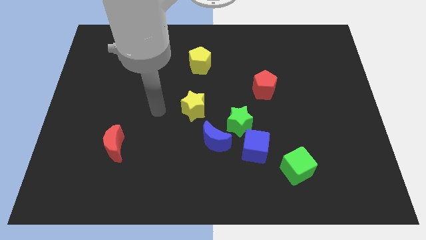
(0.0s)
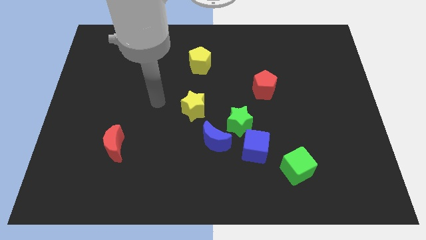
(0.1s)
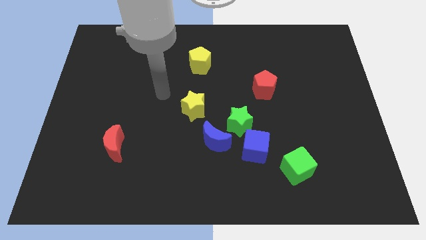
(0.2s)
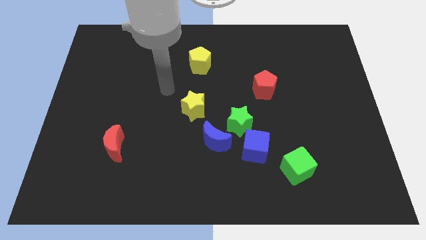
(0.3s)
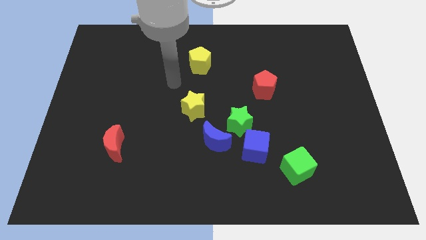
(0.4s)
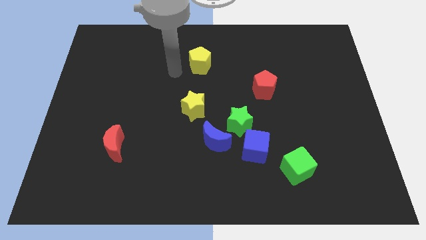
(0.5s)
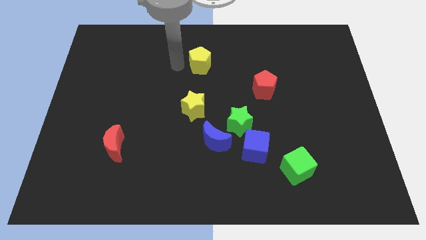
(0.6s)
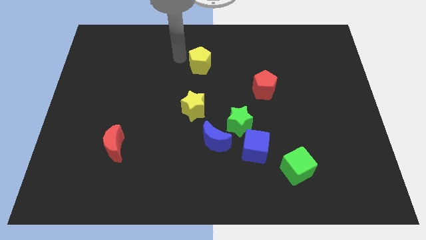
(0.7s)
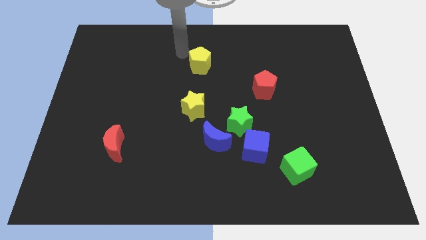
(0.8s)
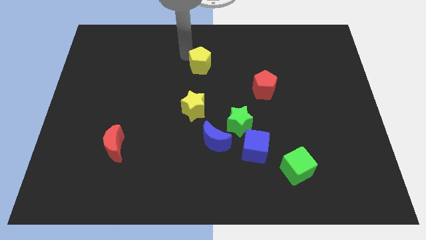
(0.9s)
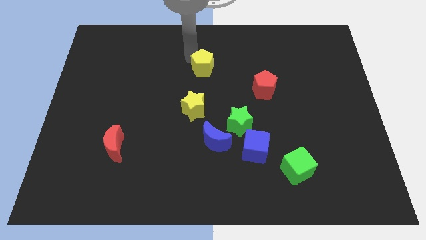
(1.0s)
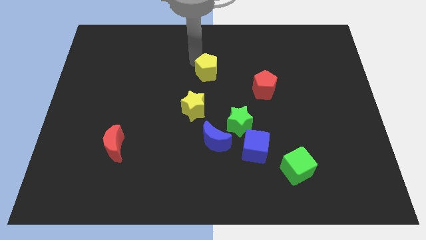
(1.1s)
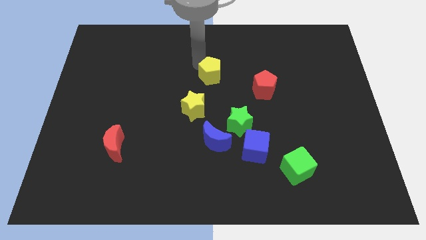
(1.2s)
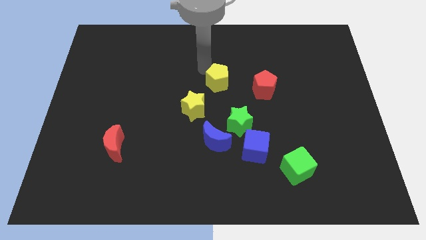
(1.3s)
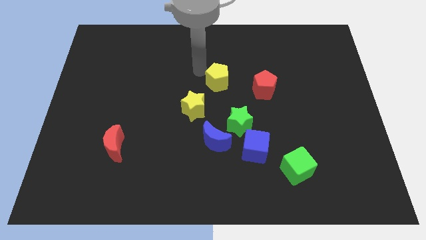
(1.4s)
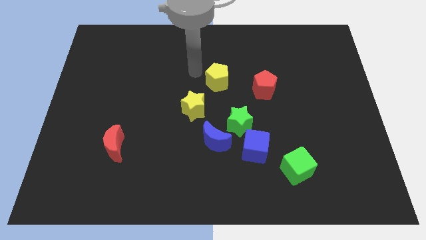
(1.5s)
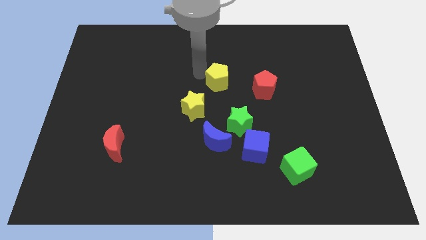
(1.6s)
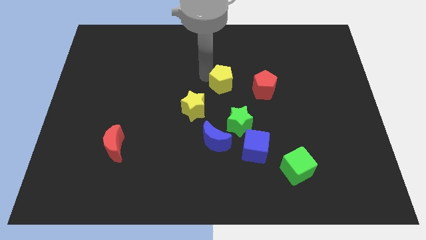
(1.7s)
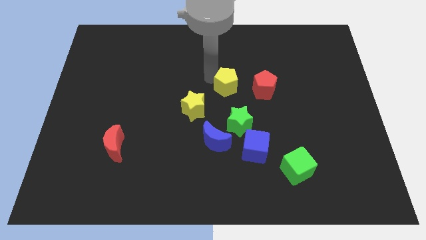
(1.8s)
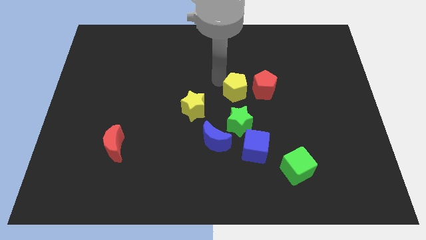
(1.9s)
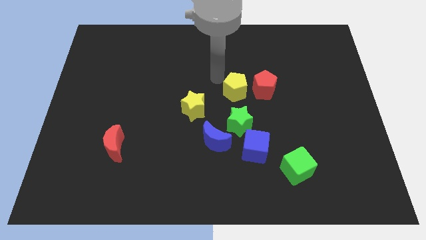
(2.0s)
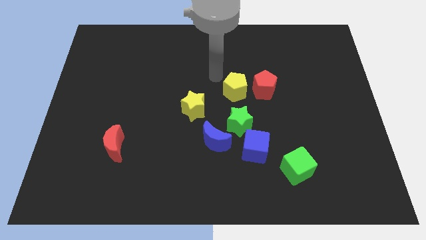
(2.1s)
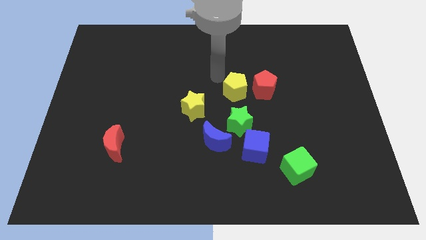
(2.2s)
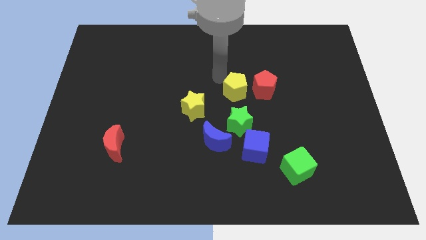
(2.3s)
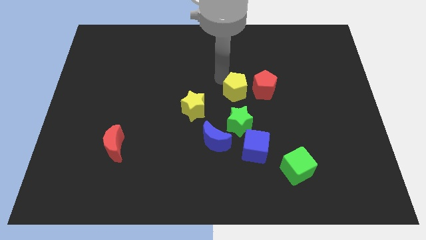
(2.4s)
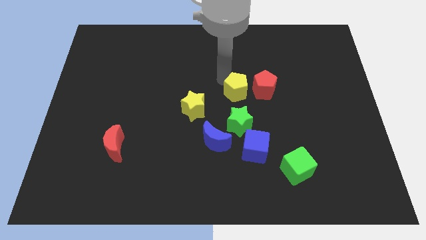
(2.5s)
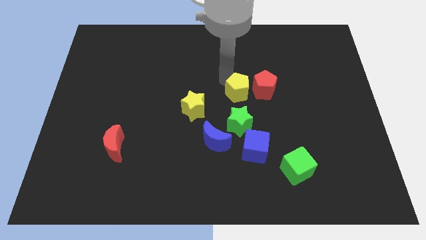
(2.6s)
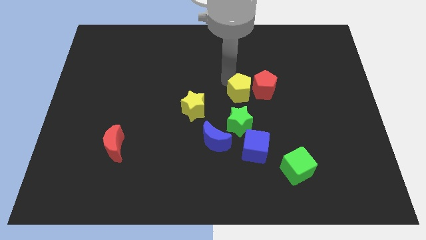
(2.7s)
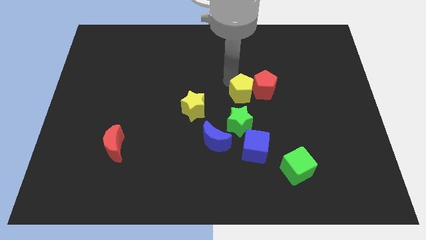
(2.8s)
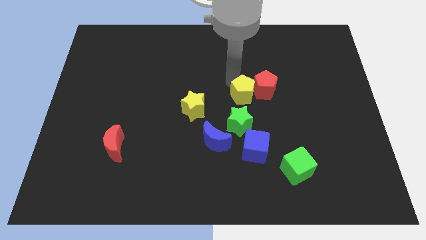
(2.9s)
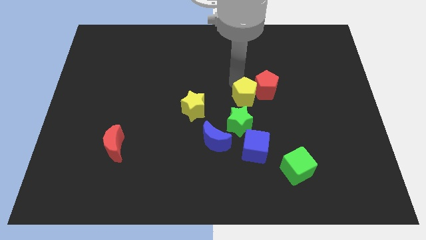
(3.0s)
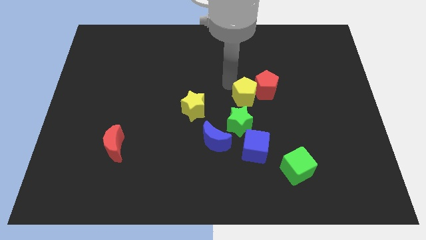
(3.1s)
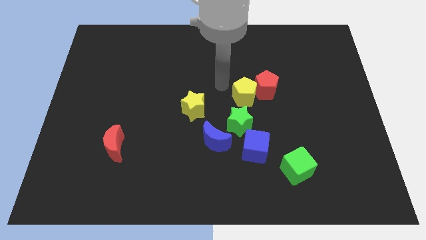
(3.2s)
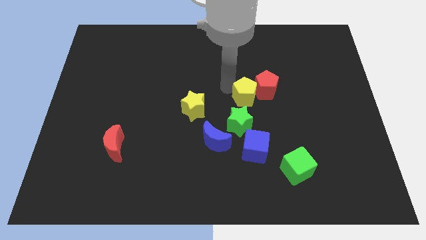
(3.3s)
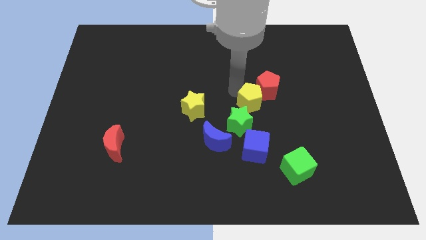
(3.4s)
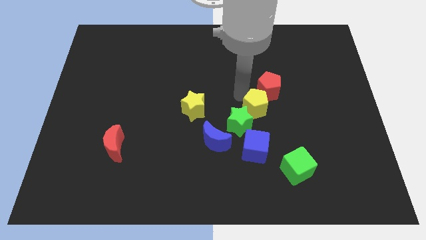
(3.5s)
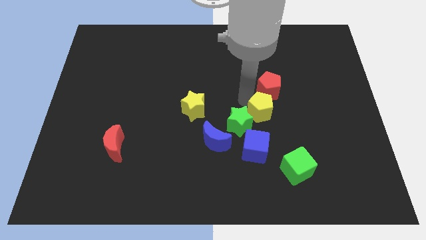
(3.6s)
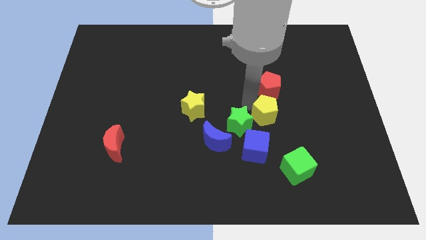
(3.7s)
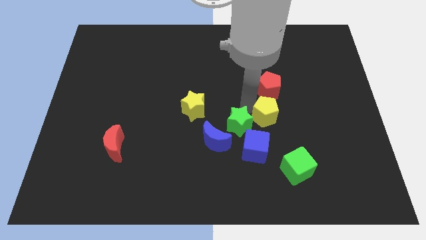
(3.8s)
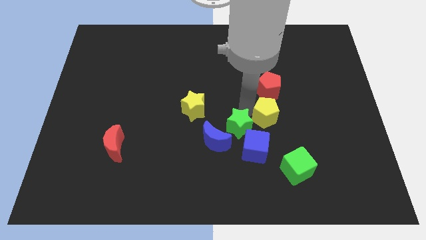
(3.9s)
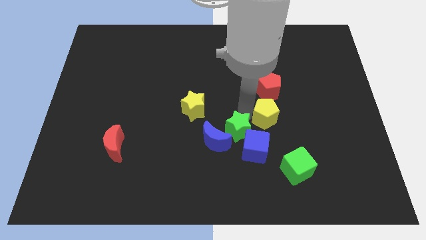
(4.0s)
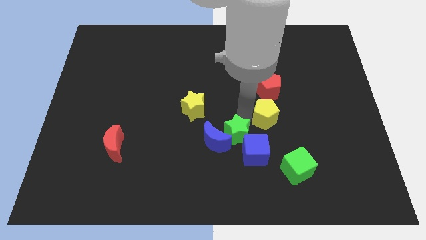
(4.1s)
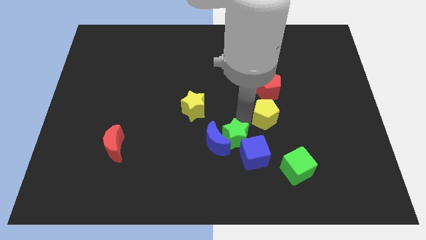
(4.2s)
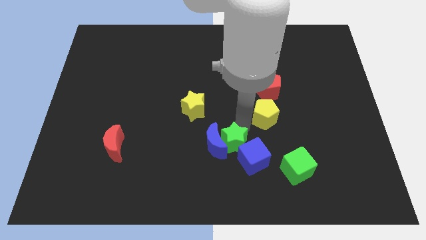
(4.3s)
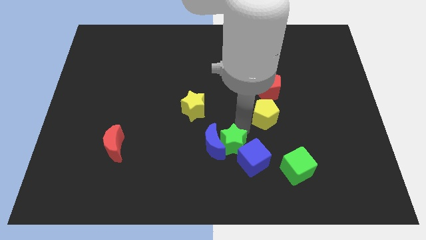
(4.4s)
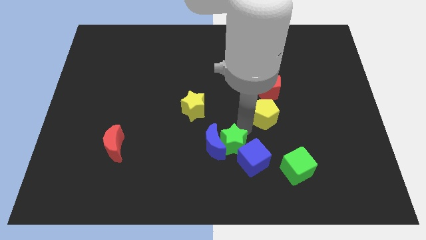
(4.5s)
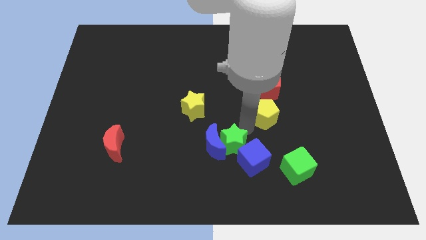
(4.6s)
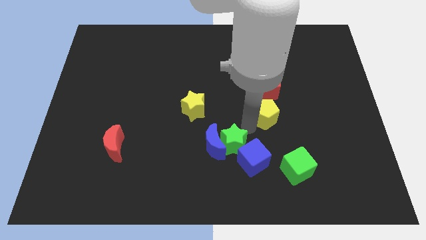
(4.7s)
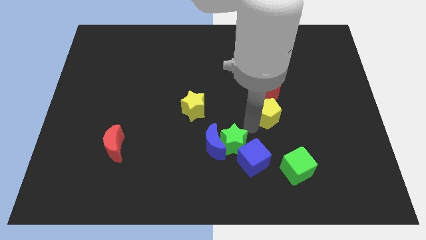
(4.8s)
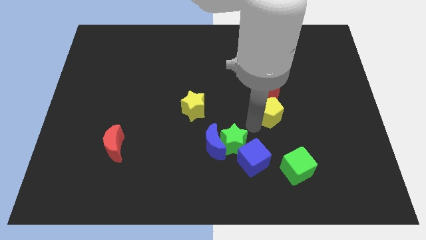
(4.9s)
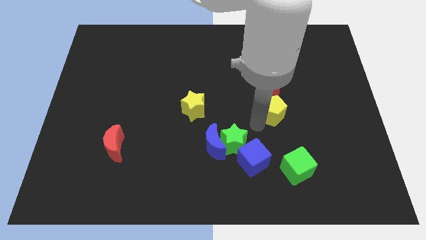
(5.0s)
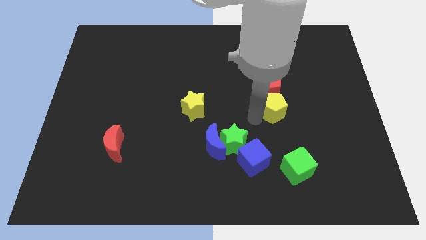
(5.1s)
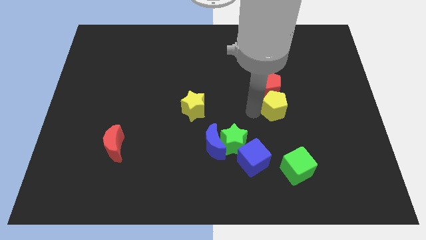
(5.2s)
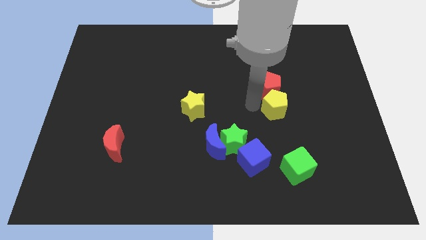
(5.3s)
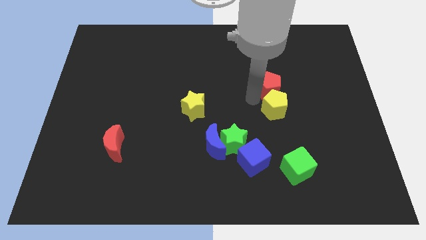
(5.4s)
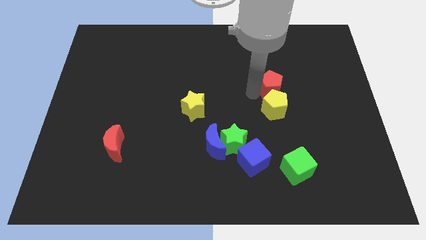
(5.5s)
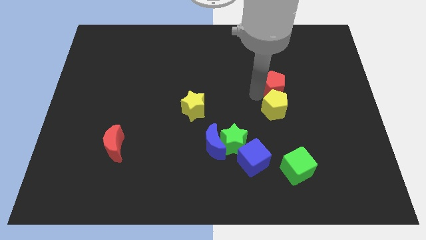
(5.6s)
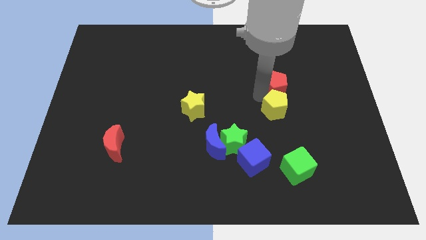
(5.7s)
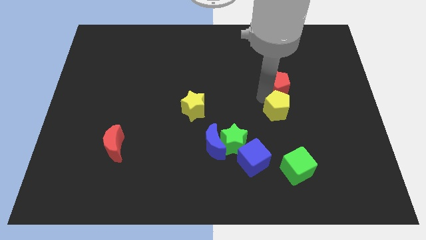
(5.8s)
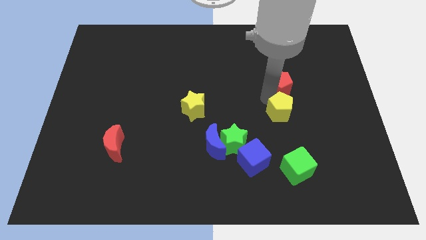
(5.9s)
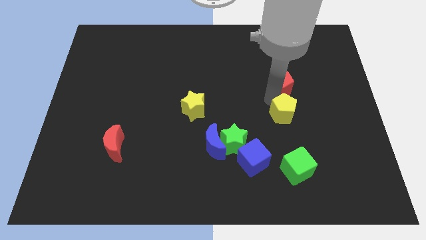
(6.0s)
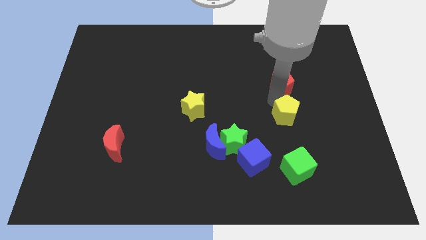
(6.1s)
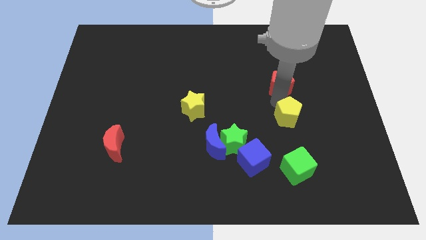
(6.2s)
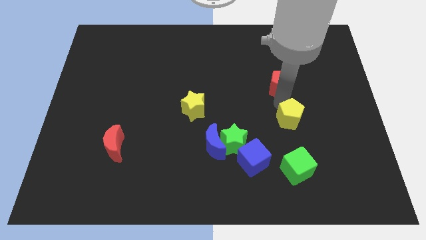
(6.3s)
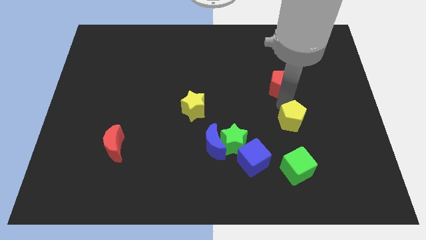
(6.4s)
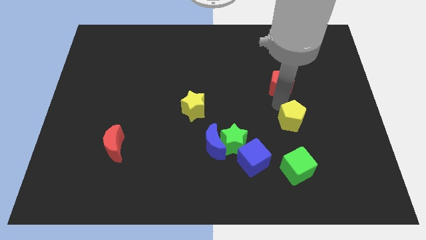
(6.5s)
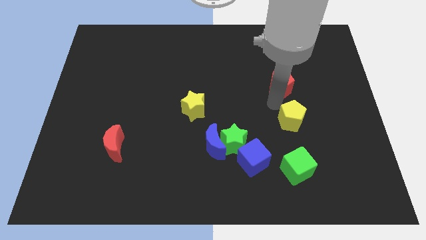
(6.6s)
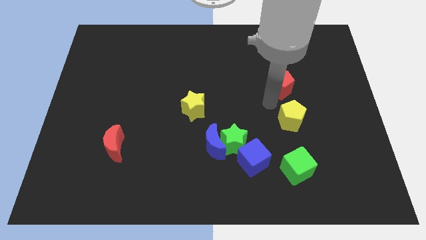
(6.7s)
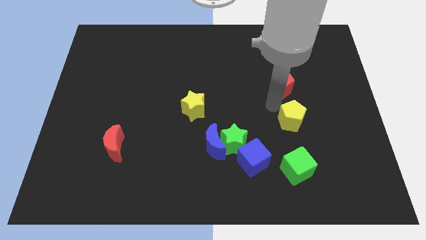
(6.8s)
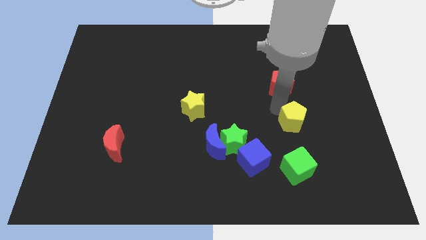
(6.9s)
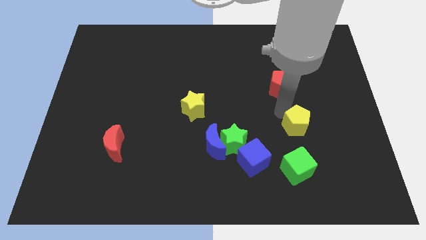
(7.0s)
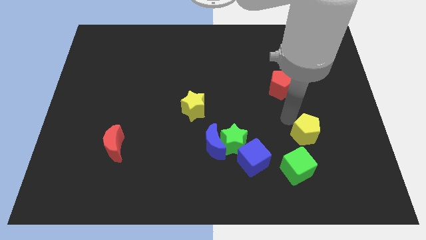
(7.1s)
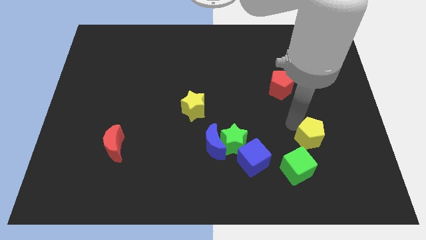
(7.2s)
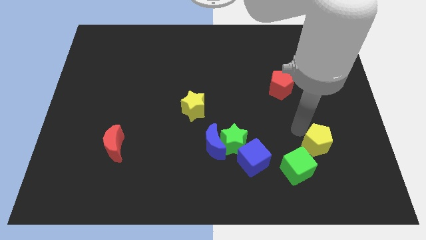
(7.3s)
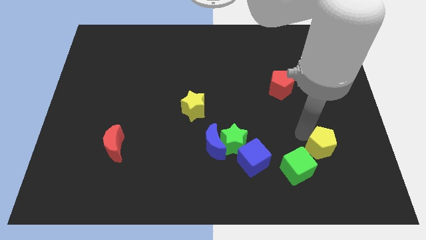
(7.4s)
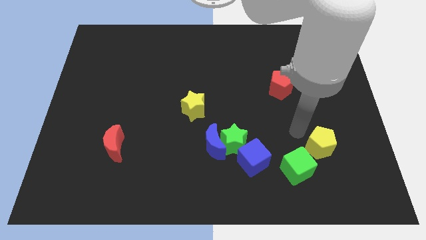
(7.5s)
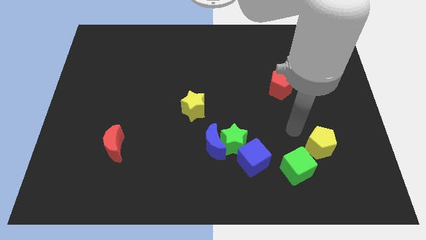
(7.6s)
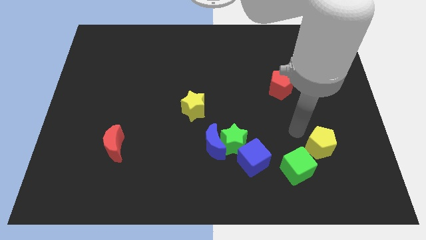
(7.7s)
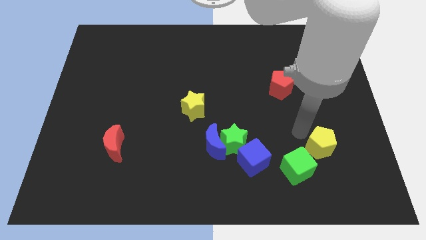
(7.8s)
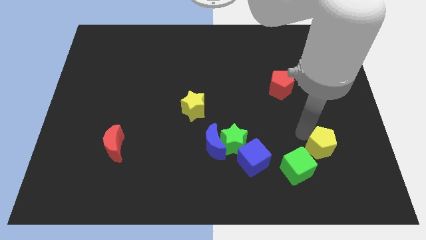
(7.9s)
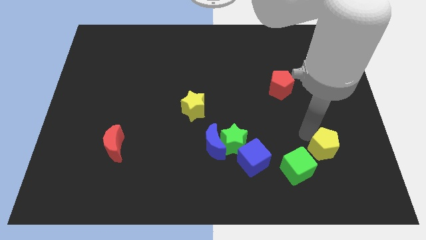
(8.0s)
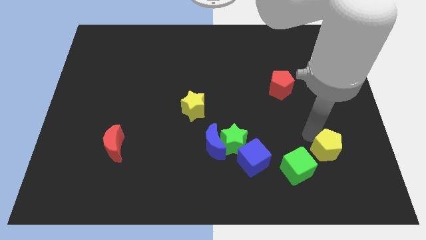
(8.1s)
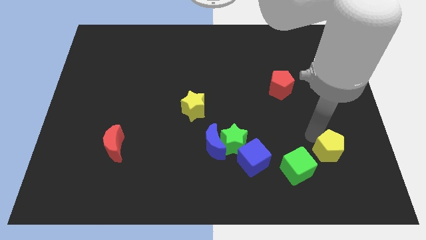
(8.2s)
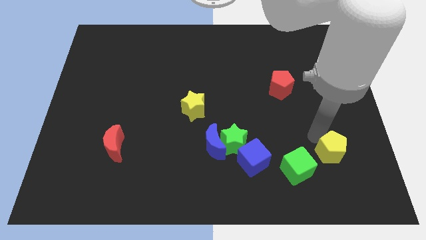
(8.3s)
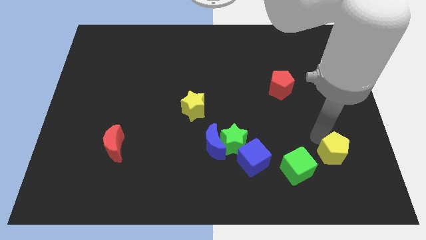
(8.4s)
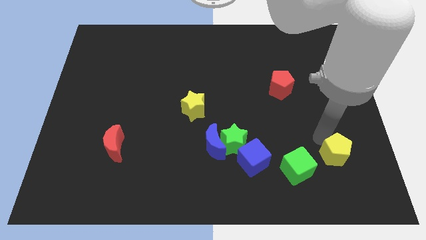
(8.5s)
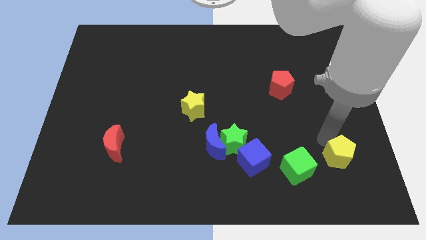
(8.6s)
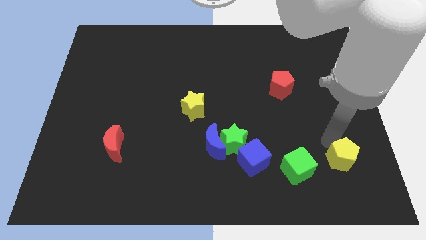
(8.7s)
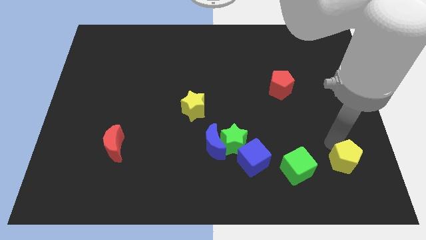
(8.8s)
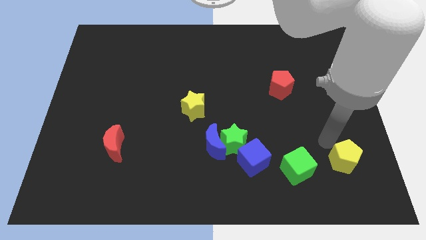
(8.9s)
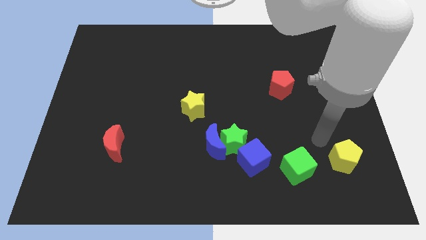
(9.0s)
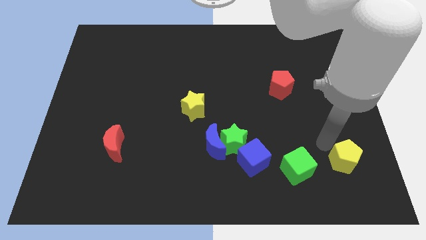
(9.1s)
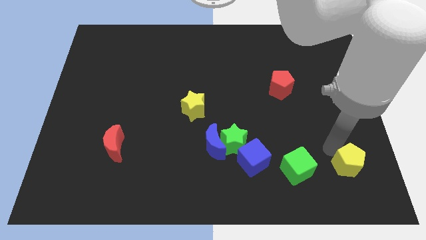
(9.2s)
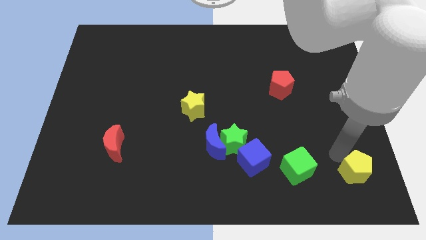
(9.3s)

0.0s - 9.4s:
slide the yellow pentagon to the bottom right of the board
